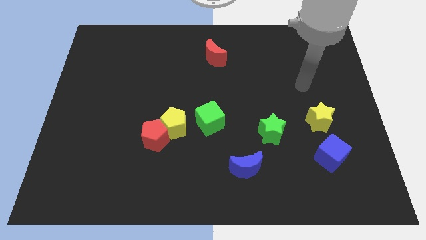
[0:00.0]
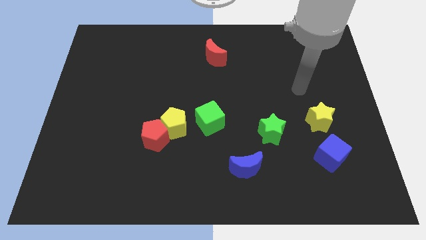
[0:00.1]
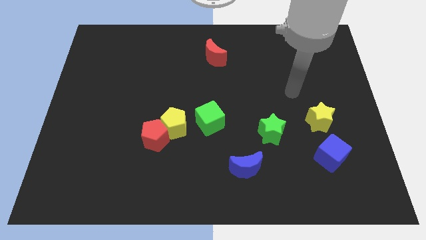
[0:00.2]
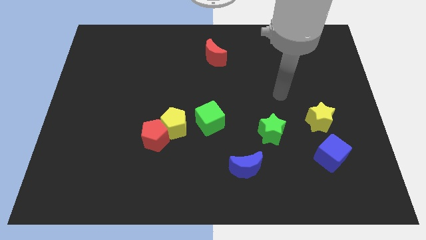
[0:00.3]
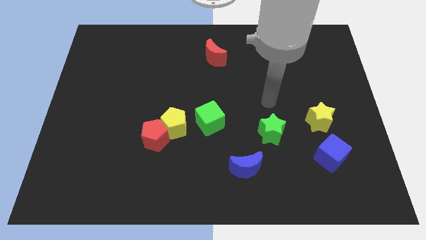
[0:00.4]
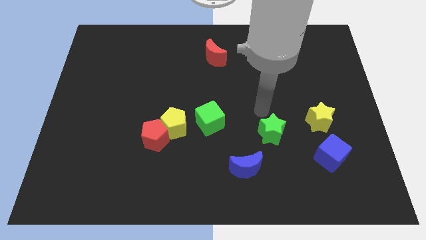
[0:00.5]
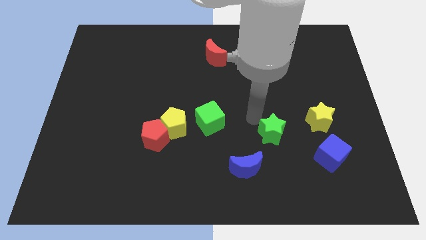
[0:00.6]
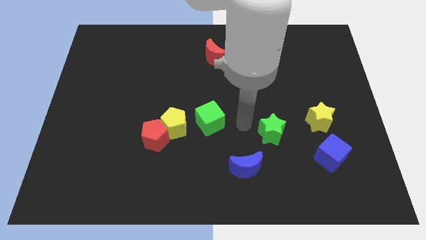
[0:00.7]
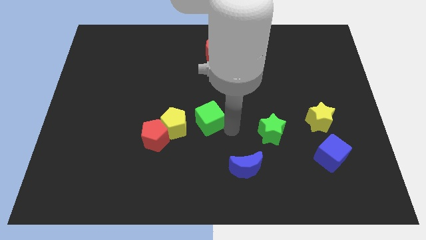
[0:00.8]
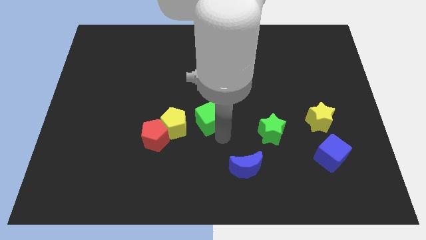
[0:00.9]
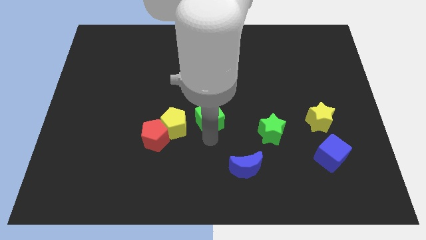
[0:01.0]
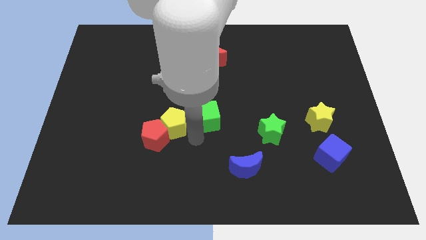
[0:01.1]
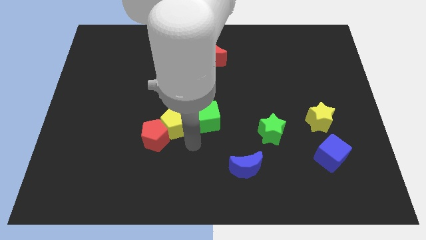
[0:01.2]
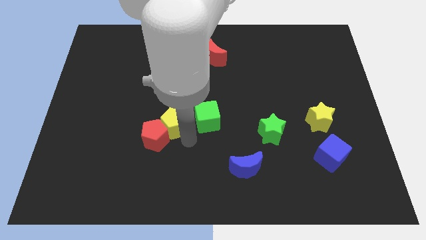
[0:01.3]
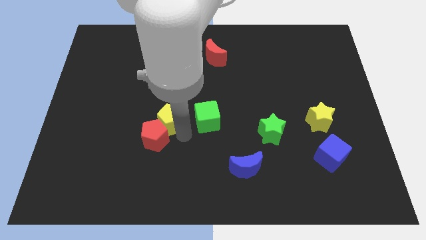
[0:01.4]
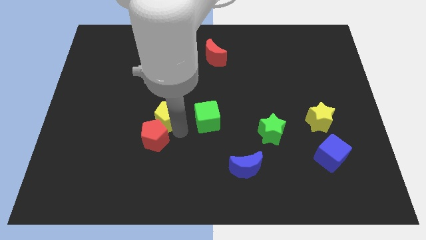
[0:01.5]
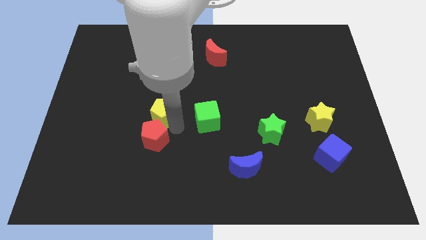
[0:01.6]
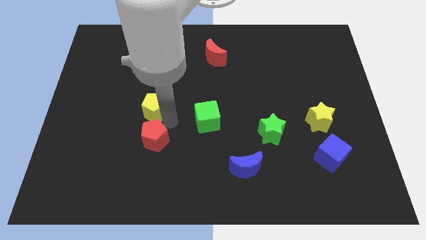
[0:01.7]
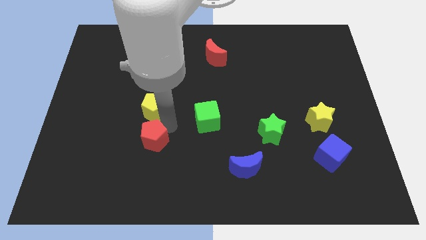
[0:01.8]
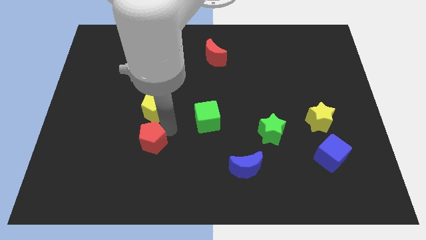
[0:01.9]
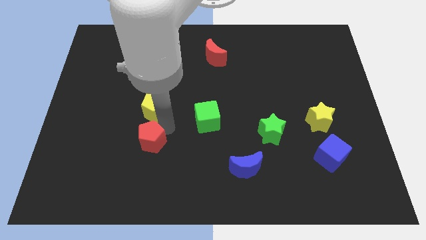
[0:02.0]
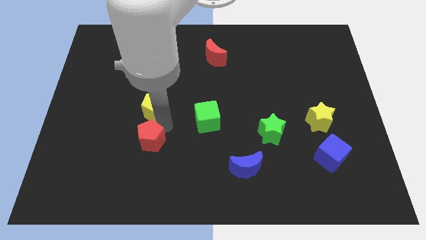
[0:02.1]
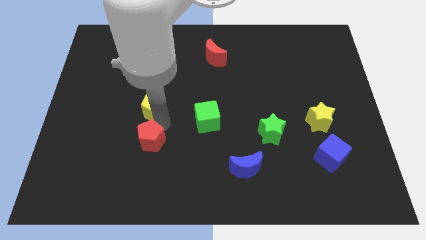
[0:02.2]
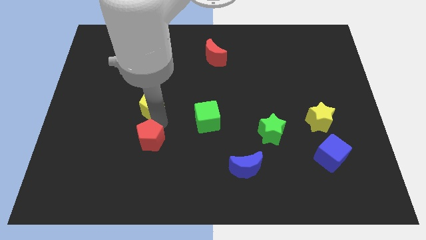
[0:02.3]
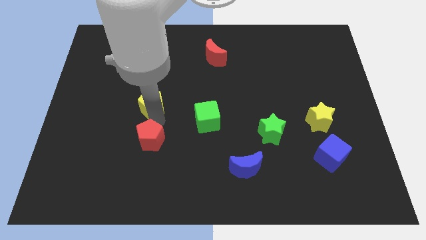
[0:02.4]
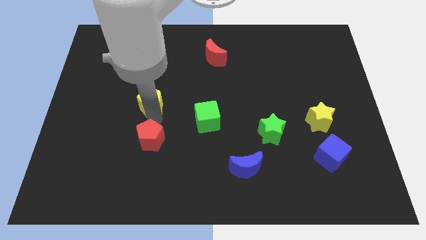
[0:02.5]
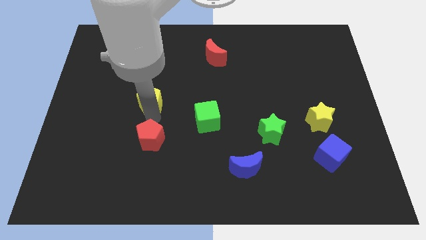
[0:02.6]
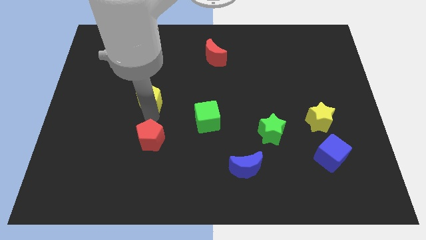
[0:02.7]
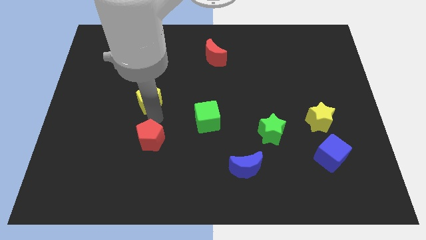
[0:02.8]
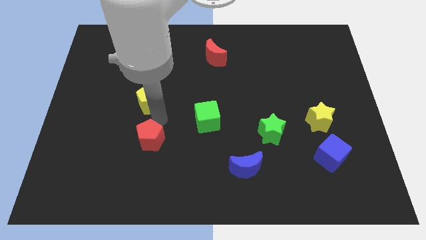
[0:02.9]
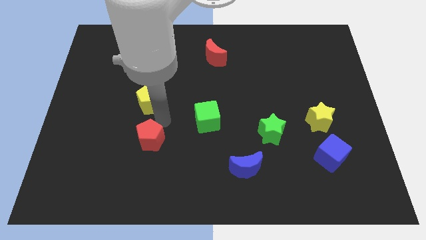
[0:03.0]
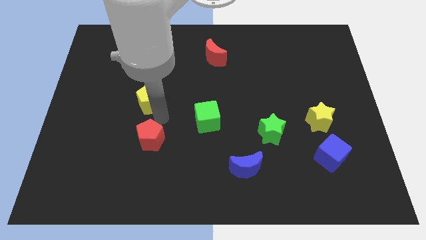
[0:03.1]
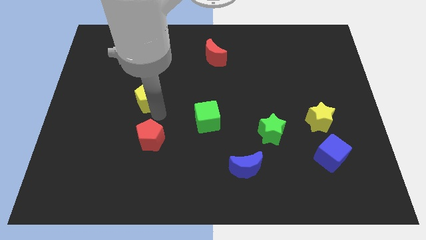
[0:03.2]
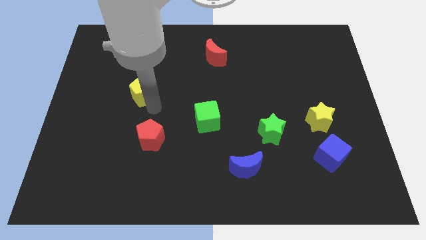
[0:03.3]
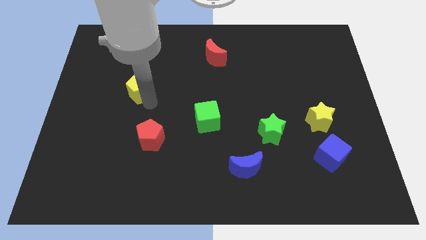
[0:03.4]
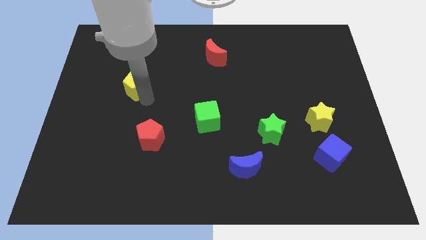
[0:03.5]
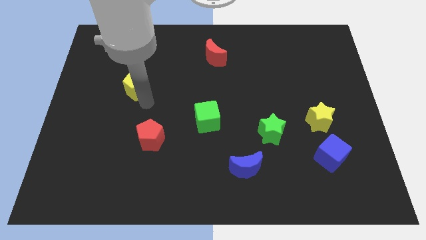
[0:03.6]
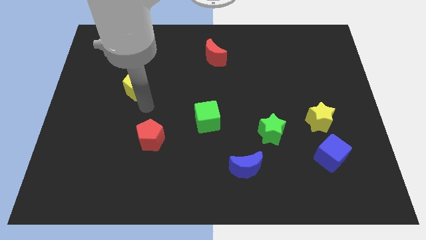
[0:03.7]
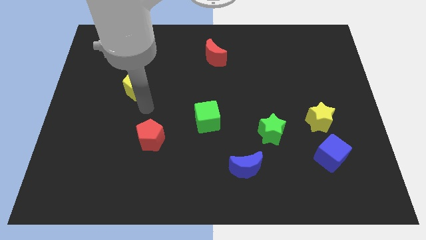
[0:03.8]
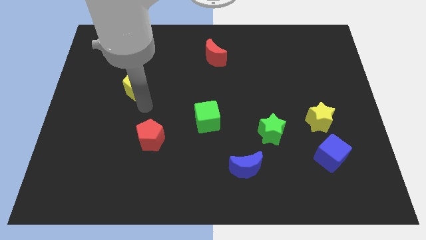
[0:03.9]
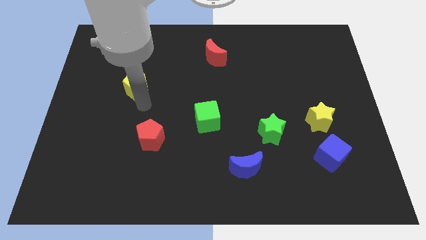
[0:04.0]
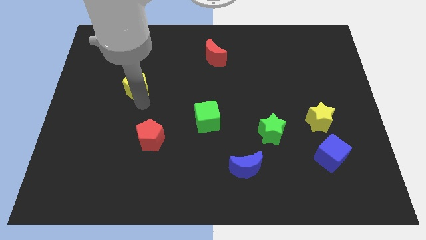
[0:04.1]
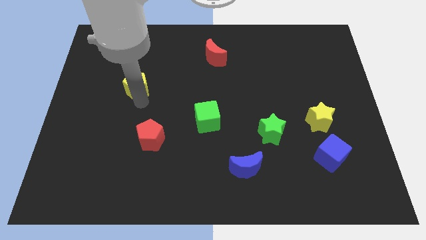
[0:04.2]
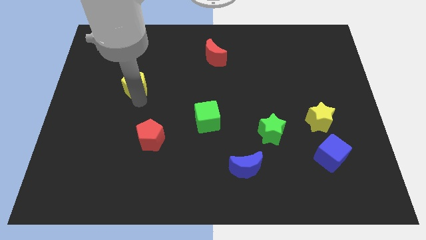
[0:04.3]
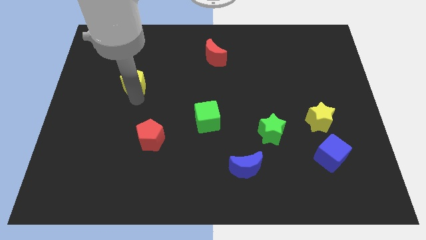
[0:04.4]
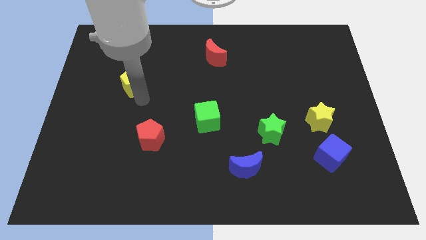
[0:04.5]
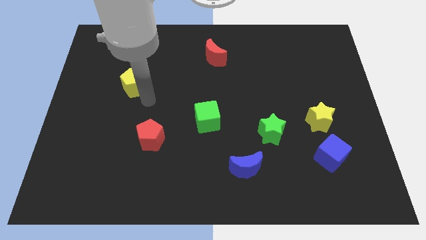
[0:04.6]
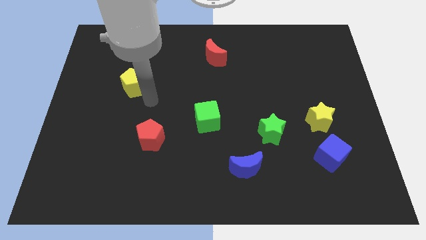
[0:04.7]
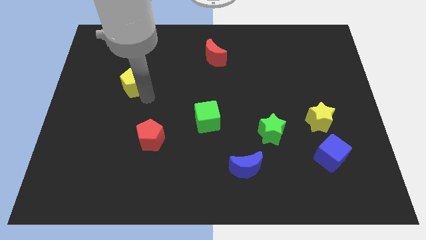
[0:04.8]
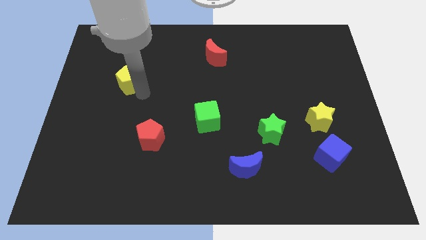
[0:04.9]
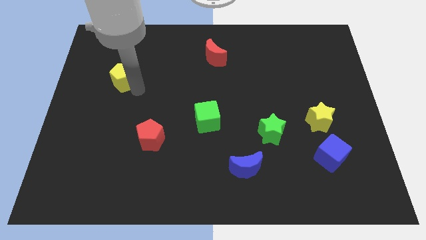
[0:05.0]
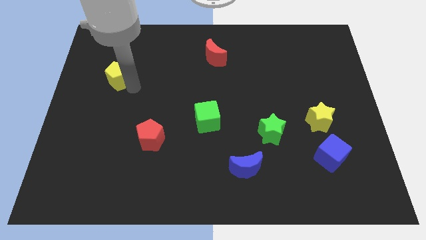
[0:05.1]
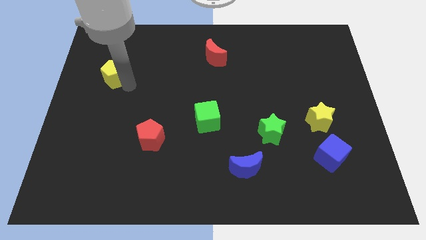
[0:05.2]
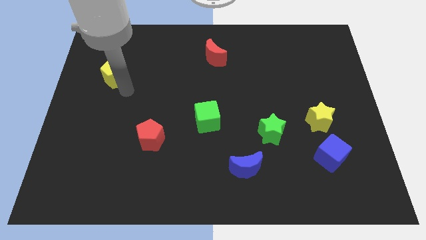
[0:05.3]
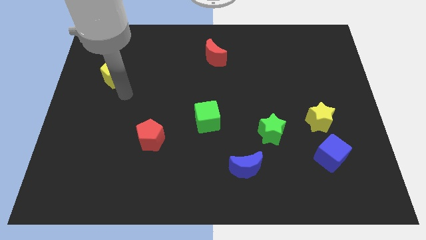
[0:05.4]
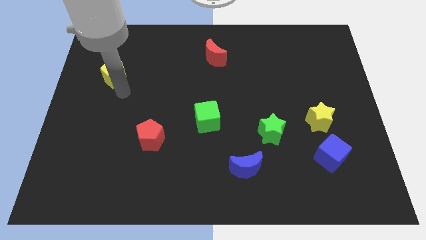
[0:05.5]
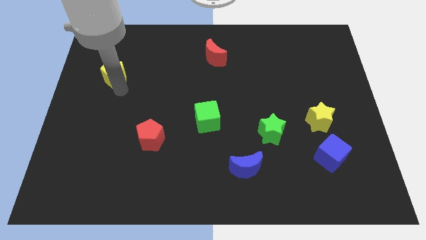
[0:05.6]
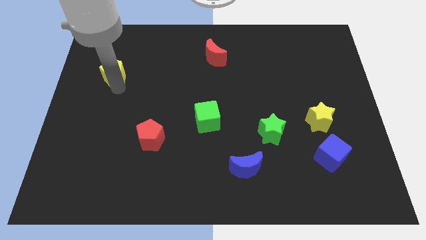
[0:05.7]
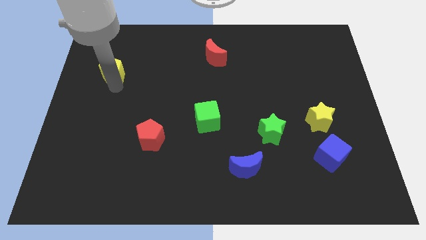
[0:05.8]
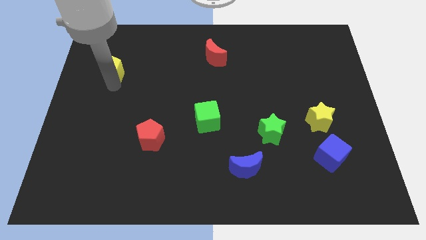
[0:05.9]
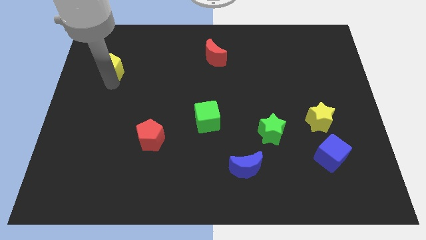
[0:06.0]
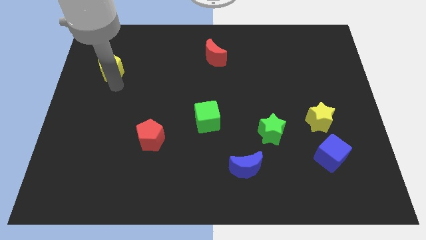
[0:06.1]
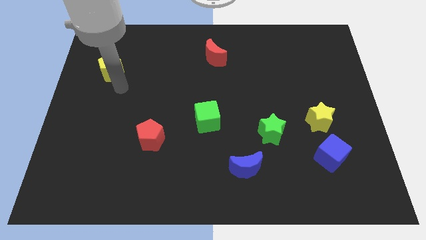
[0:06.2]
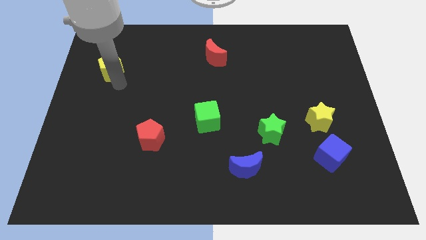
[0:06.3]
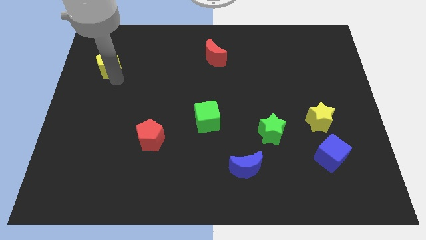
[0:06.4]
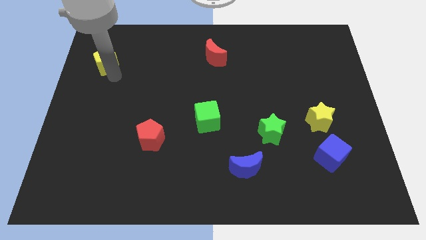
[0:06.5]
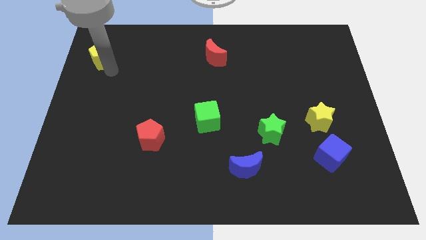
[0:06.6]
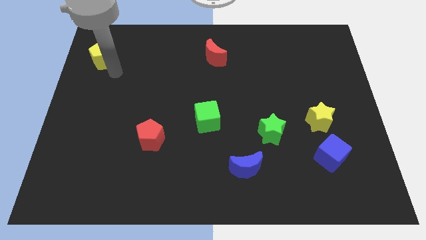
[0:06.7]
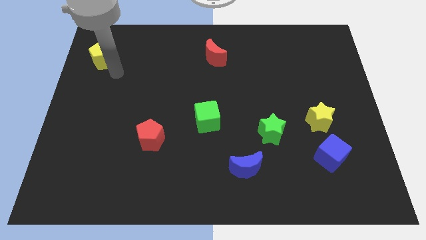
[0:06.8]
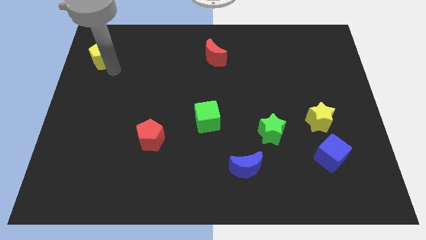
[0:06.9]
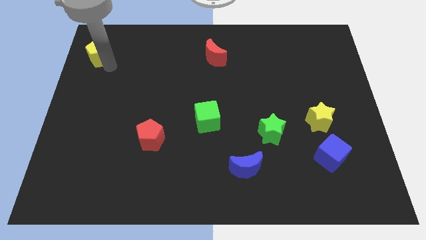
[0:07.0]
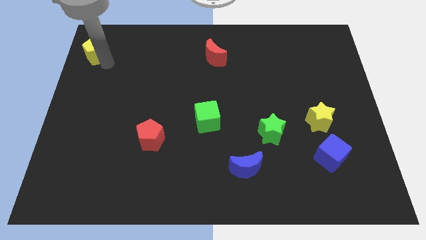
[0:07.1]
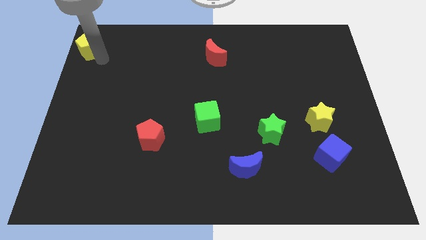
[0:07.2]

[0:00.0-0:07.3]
put the yellow pentagon to the top left
